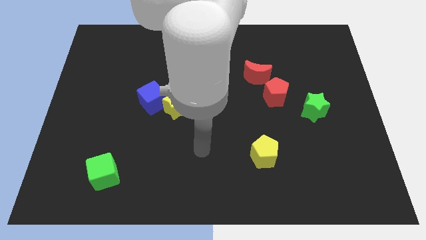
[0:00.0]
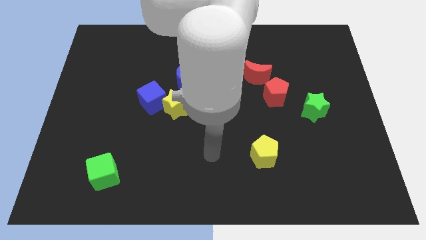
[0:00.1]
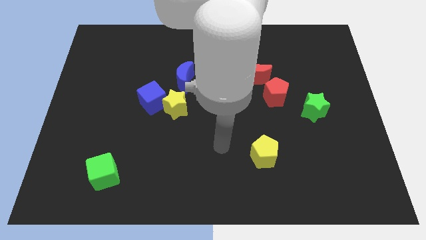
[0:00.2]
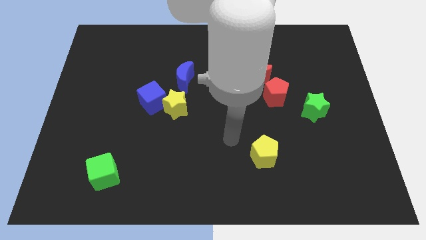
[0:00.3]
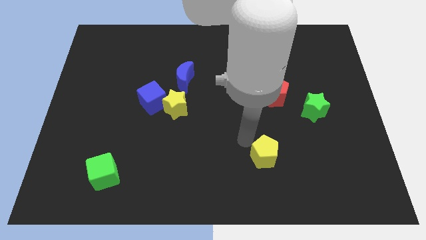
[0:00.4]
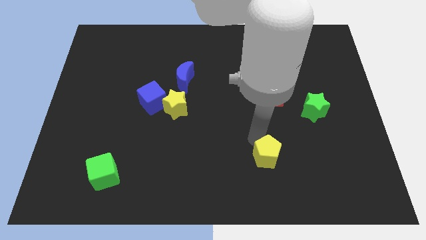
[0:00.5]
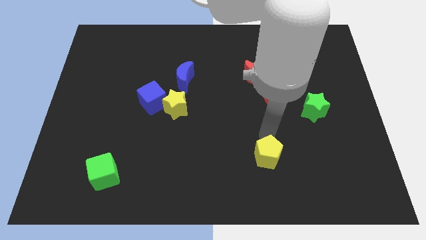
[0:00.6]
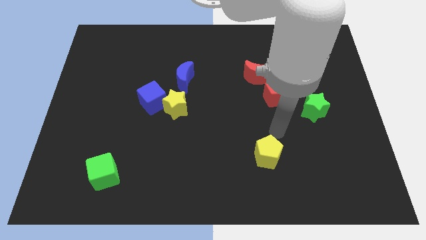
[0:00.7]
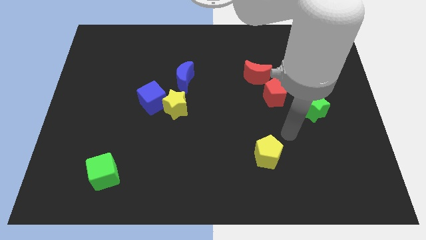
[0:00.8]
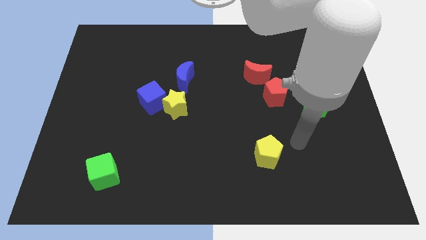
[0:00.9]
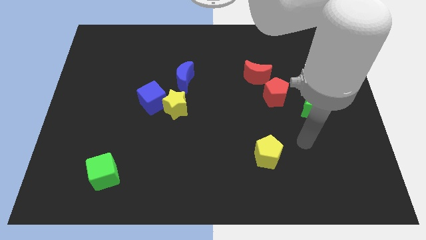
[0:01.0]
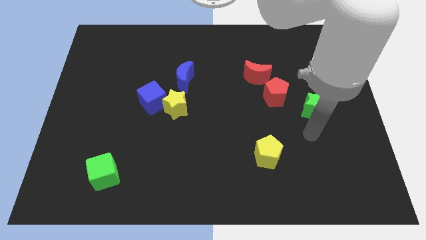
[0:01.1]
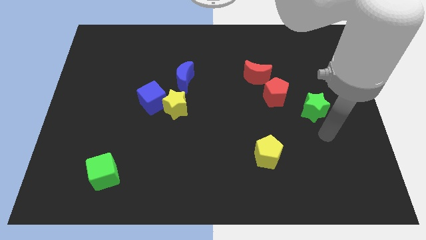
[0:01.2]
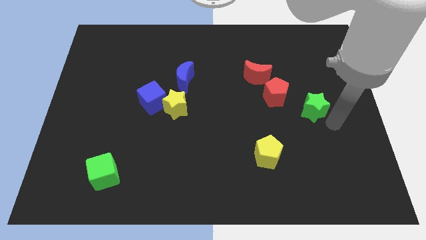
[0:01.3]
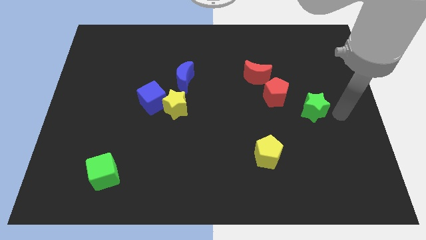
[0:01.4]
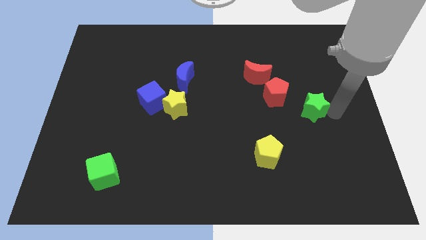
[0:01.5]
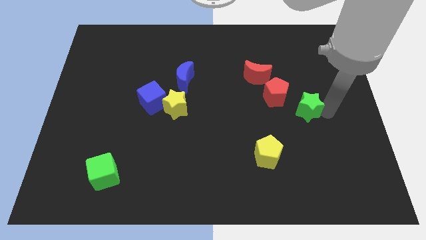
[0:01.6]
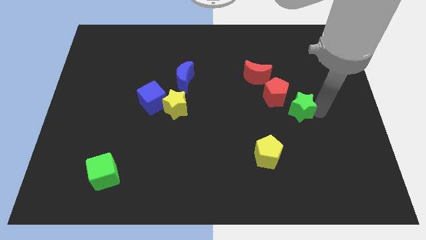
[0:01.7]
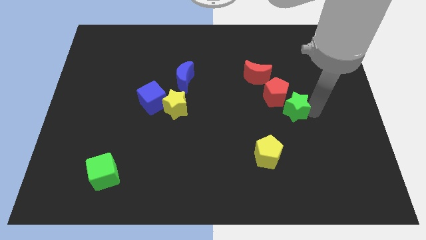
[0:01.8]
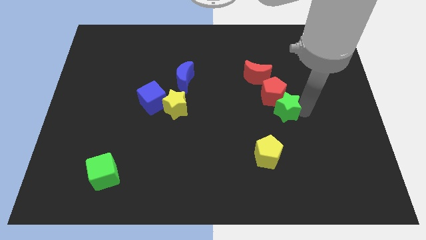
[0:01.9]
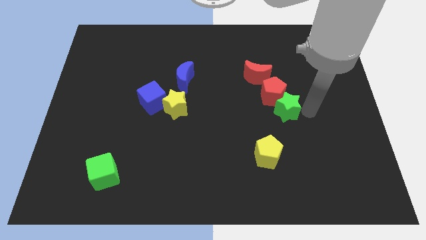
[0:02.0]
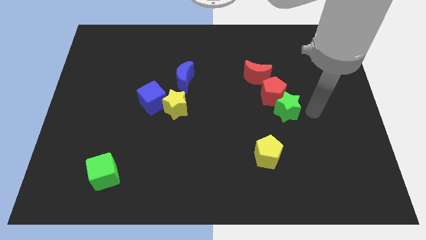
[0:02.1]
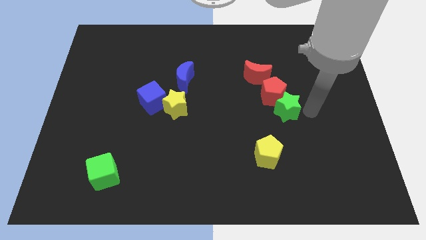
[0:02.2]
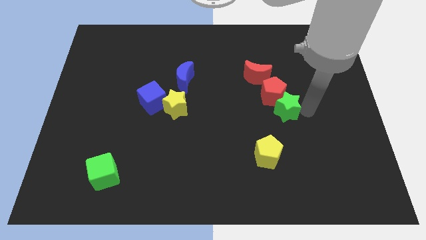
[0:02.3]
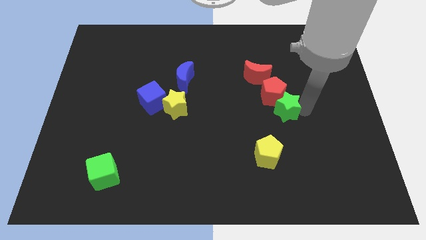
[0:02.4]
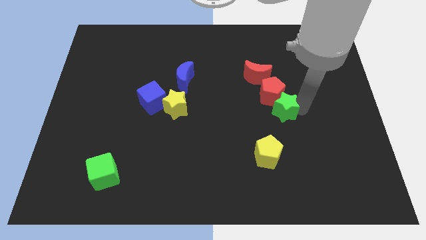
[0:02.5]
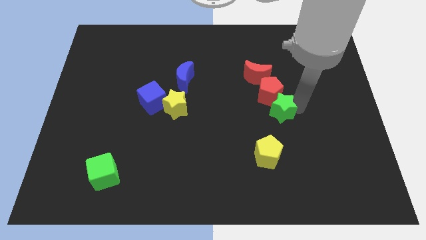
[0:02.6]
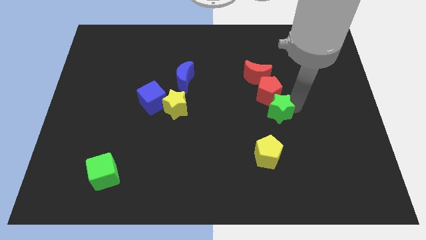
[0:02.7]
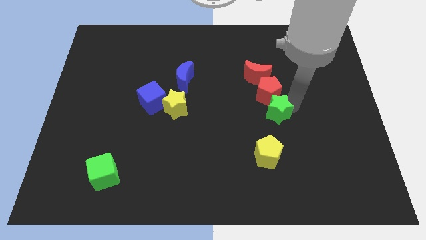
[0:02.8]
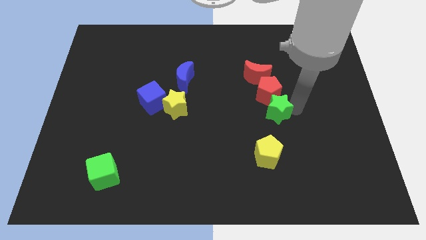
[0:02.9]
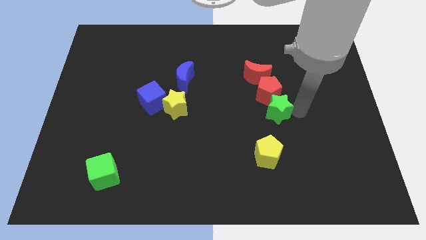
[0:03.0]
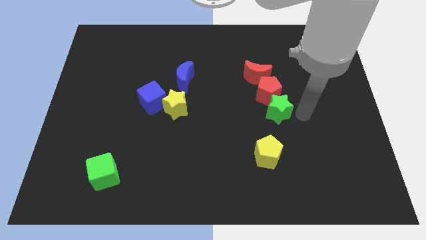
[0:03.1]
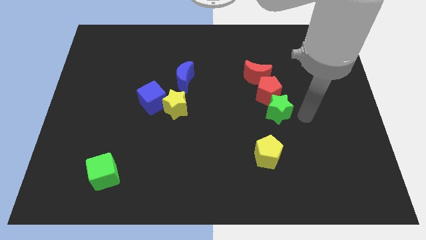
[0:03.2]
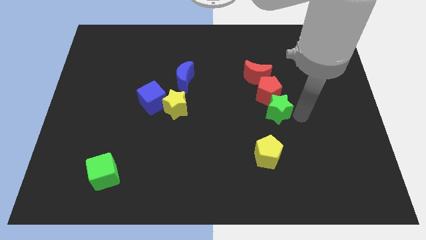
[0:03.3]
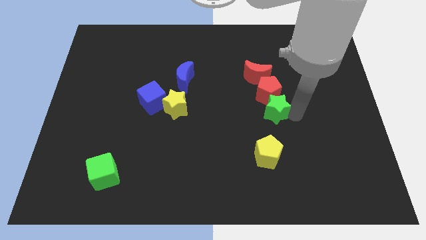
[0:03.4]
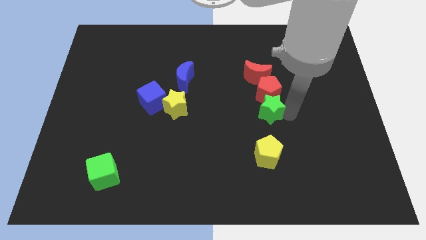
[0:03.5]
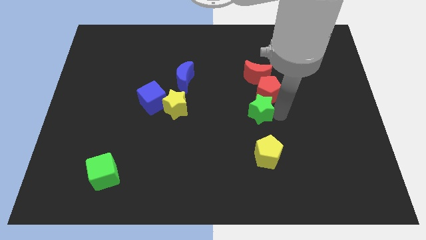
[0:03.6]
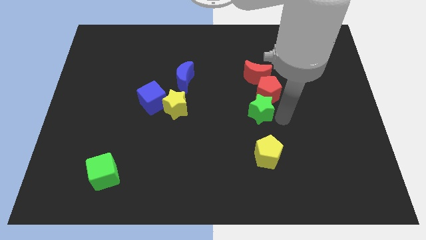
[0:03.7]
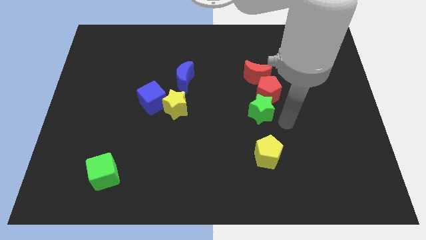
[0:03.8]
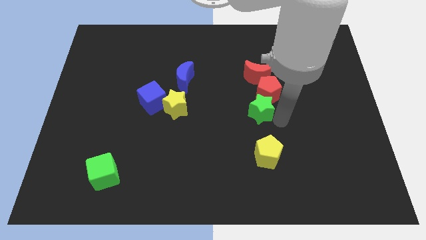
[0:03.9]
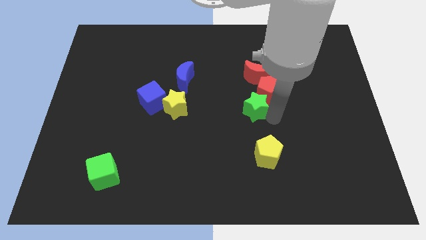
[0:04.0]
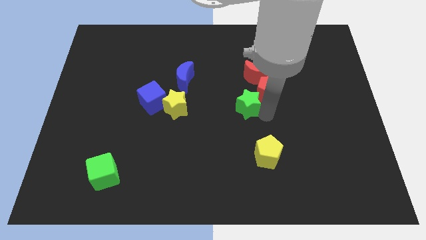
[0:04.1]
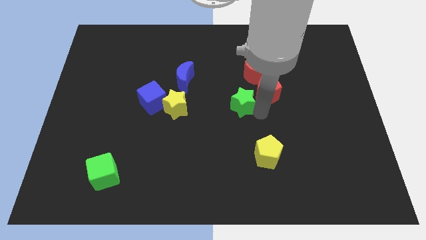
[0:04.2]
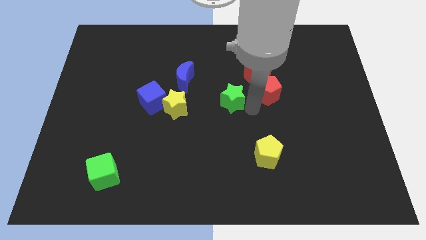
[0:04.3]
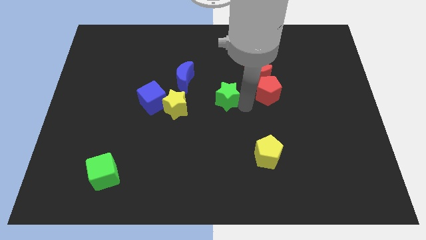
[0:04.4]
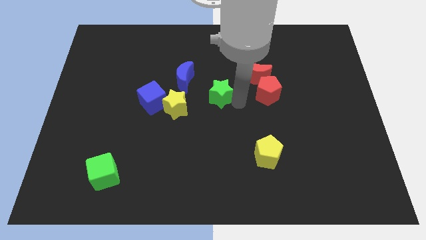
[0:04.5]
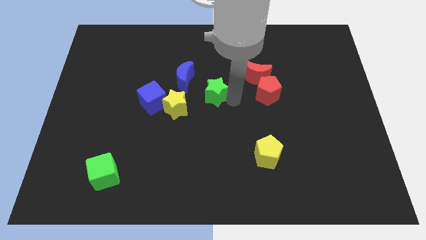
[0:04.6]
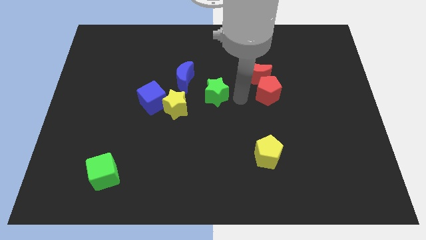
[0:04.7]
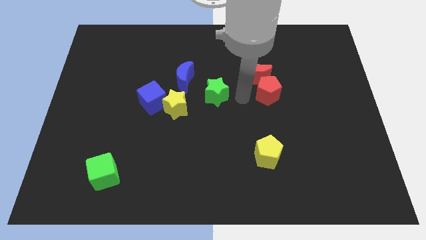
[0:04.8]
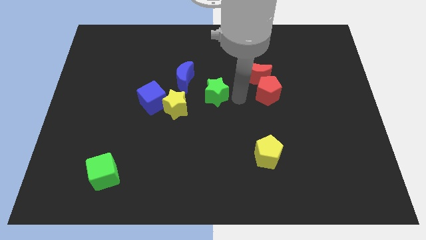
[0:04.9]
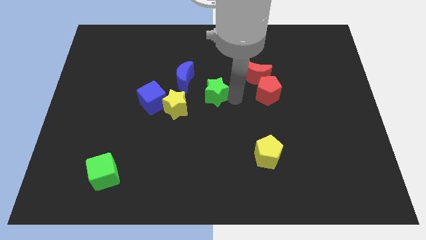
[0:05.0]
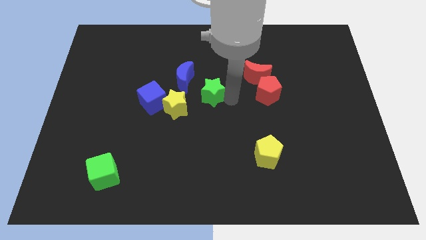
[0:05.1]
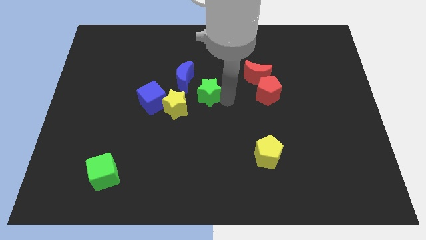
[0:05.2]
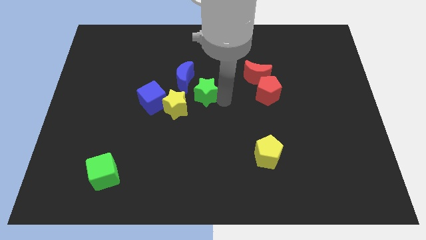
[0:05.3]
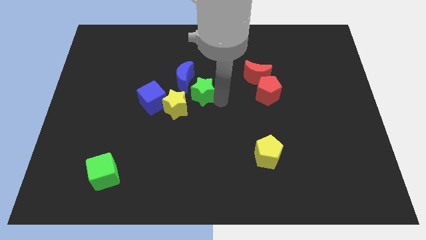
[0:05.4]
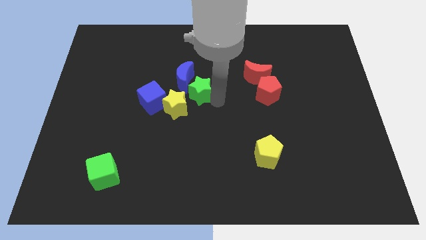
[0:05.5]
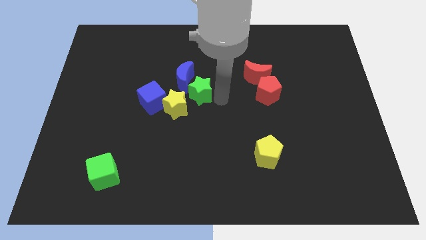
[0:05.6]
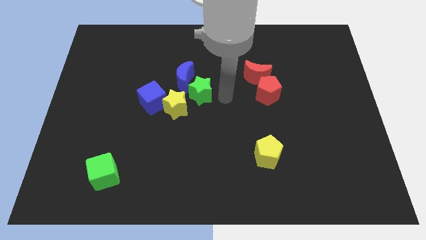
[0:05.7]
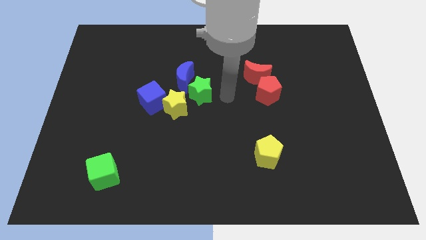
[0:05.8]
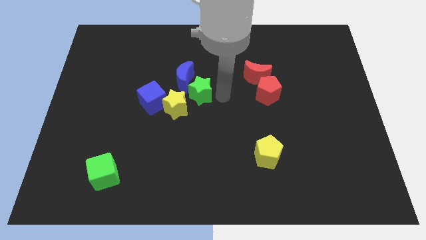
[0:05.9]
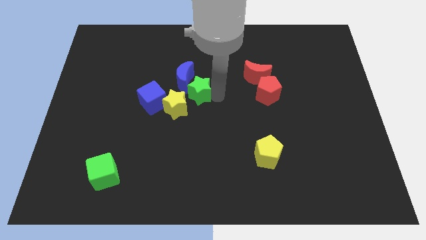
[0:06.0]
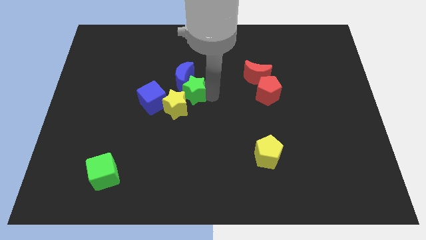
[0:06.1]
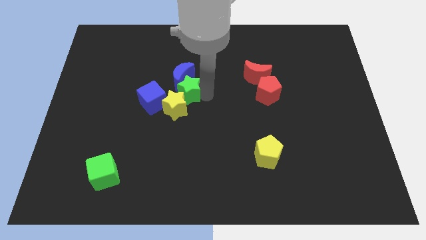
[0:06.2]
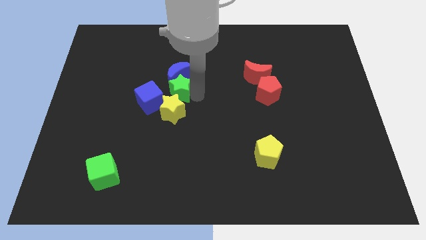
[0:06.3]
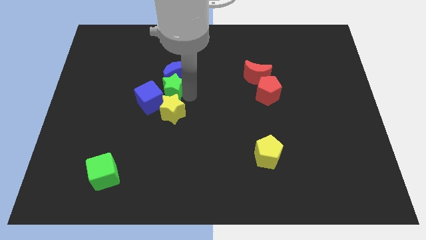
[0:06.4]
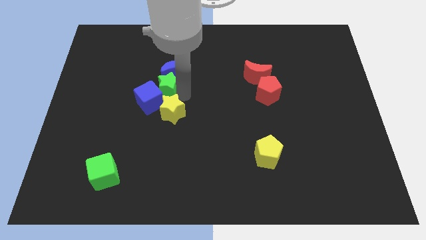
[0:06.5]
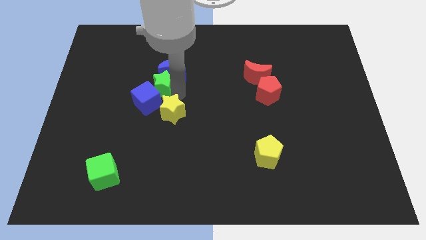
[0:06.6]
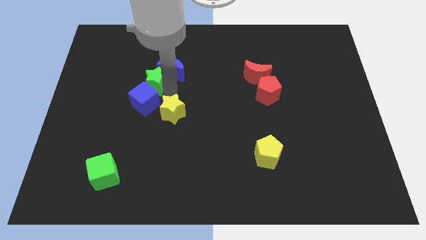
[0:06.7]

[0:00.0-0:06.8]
push the green star just left of the blue moon
